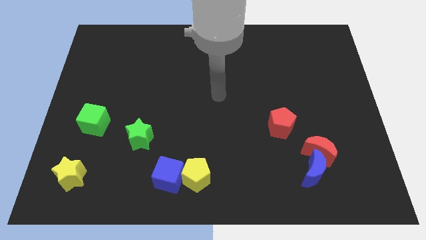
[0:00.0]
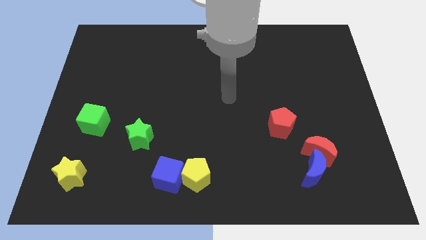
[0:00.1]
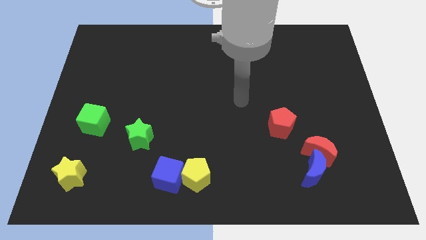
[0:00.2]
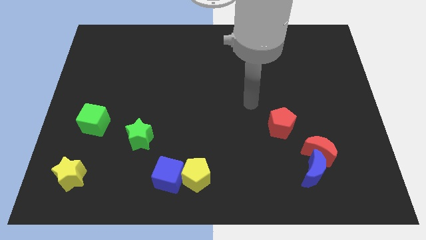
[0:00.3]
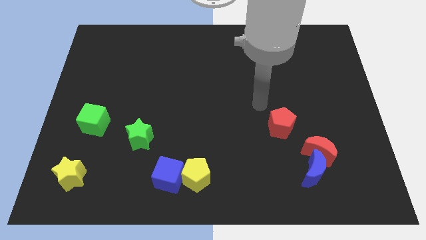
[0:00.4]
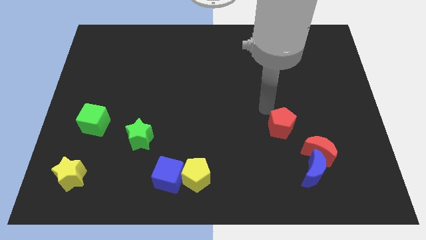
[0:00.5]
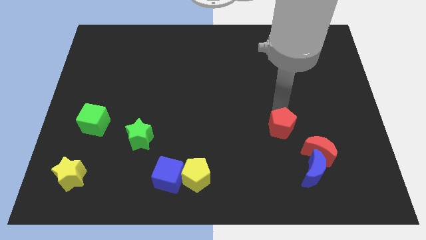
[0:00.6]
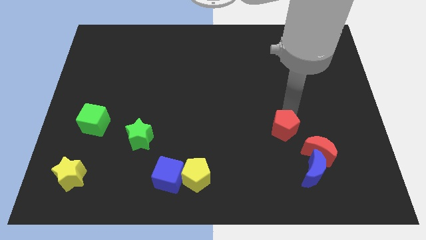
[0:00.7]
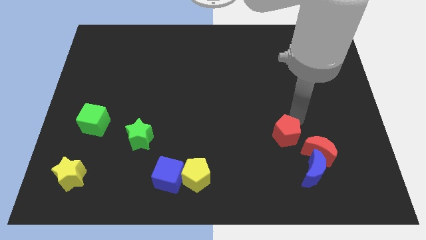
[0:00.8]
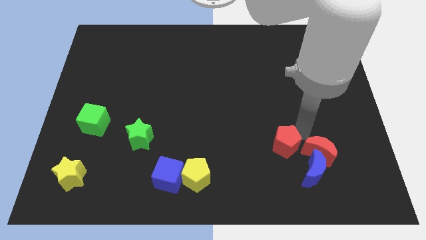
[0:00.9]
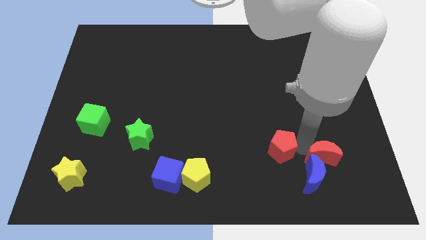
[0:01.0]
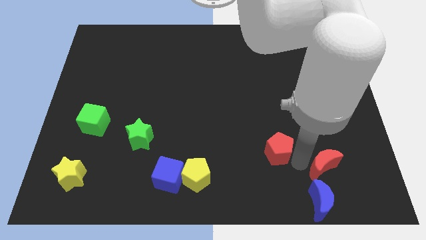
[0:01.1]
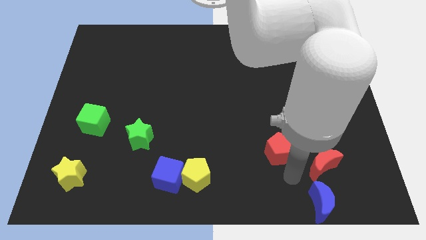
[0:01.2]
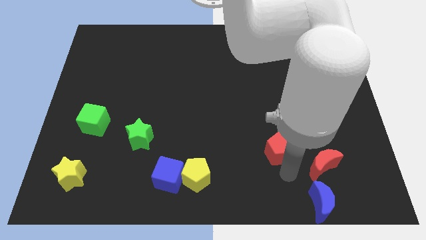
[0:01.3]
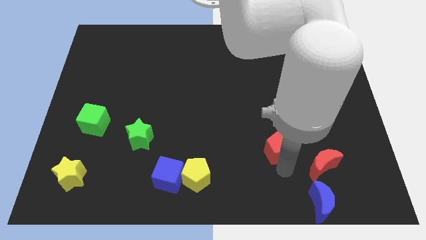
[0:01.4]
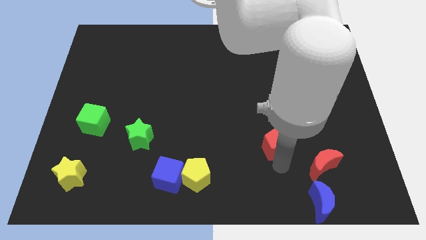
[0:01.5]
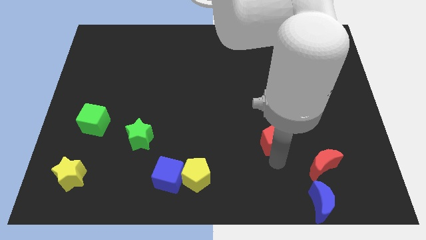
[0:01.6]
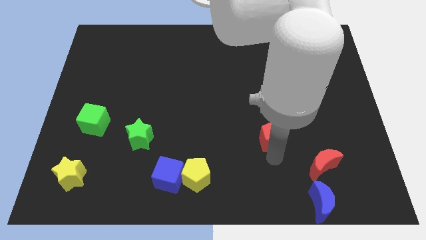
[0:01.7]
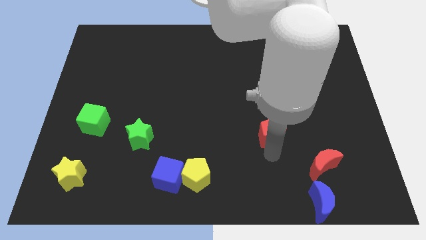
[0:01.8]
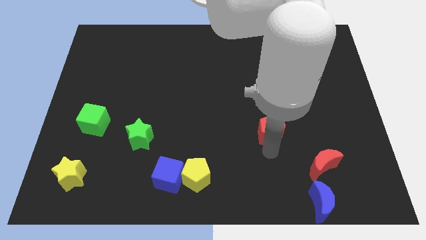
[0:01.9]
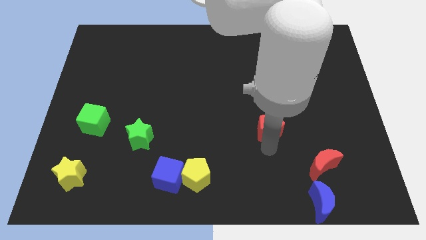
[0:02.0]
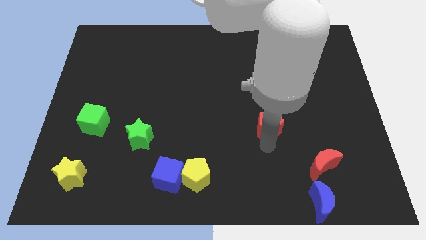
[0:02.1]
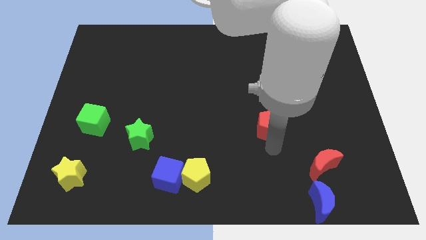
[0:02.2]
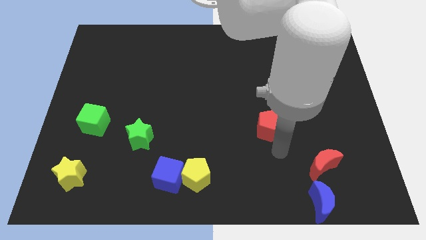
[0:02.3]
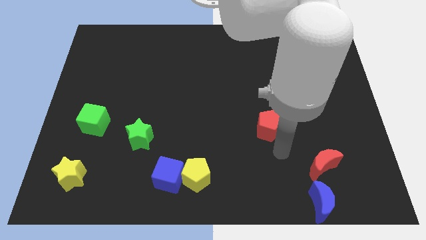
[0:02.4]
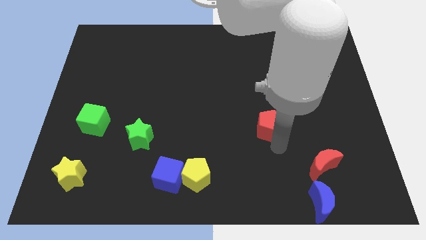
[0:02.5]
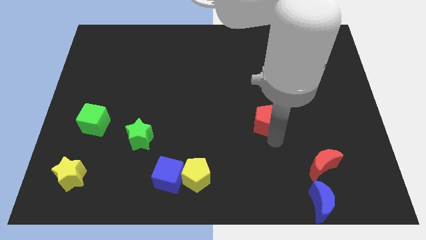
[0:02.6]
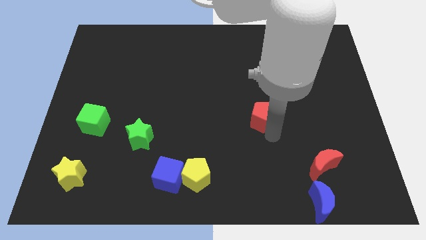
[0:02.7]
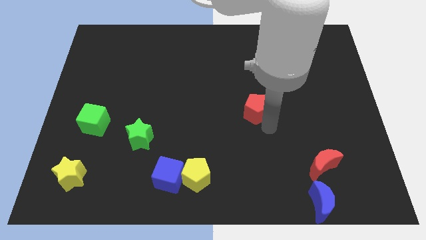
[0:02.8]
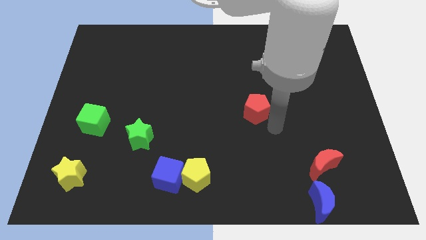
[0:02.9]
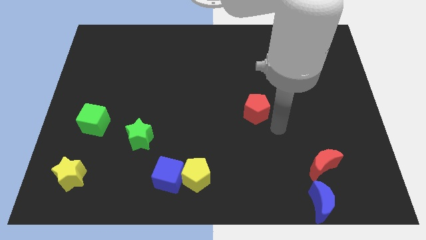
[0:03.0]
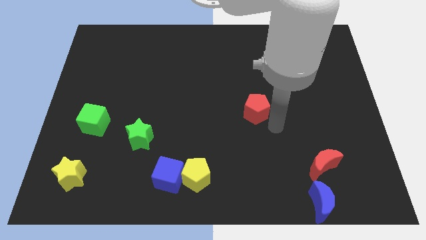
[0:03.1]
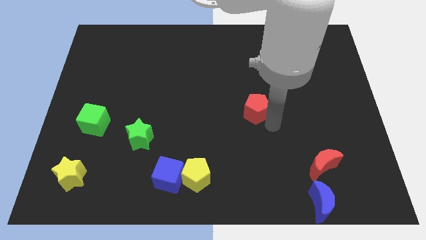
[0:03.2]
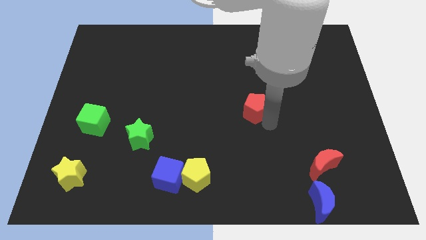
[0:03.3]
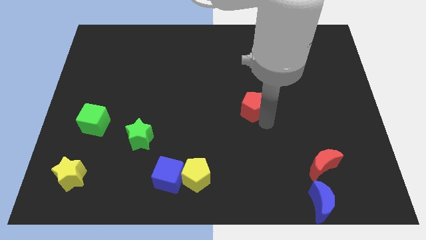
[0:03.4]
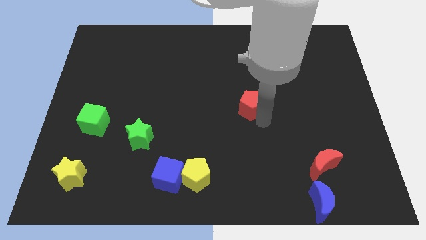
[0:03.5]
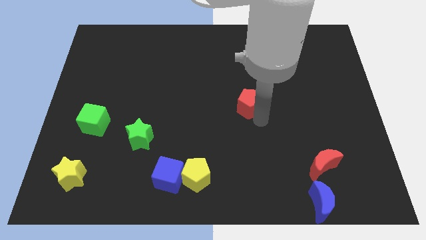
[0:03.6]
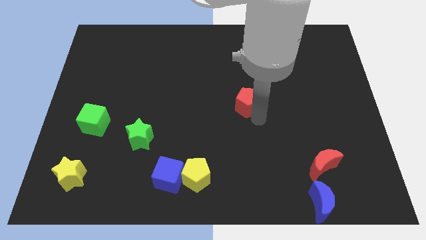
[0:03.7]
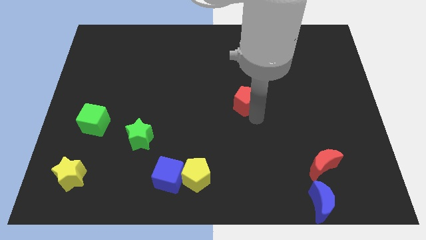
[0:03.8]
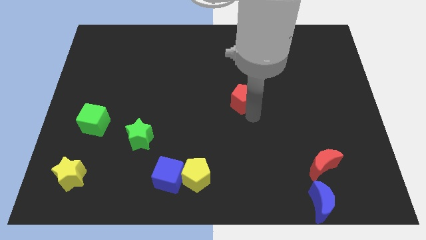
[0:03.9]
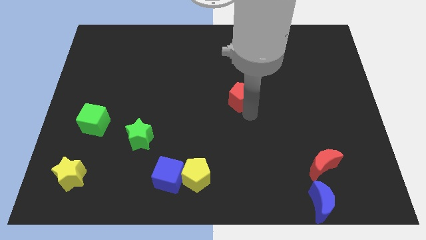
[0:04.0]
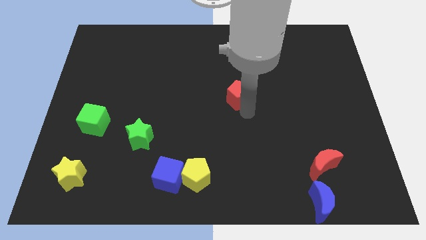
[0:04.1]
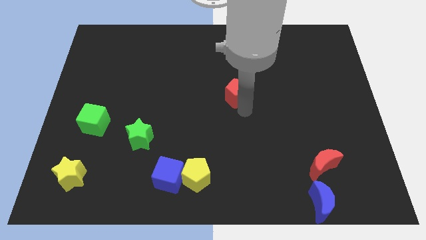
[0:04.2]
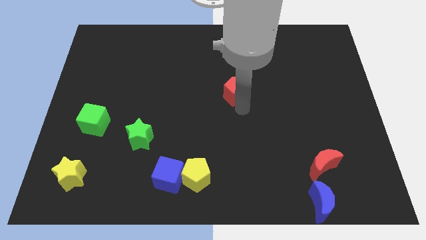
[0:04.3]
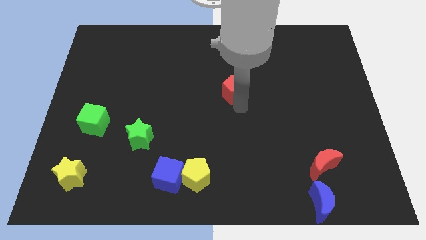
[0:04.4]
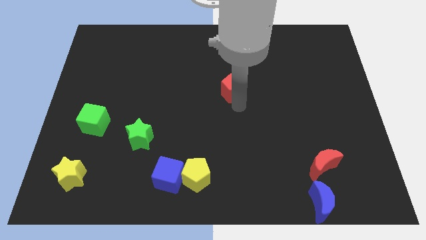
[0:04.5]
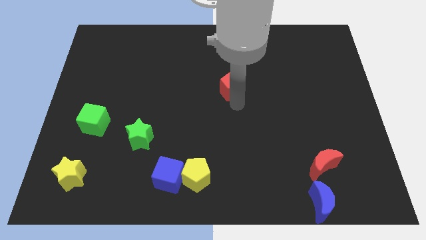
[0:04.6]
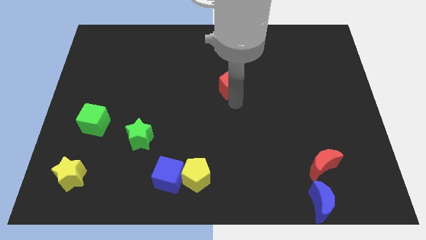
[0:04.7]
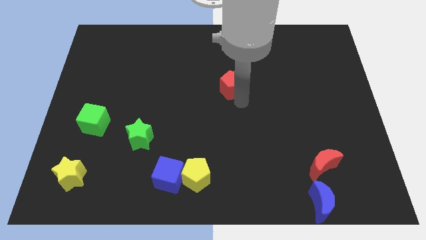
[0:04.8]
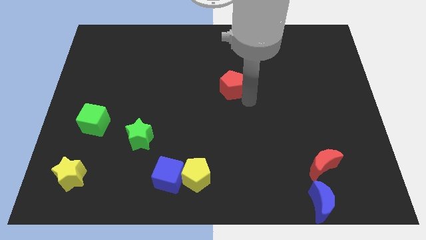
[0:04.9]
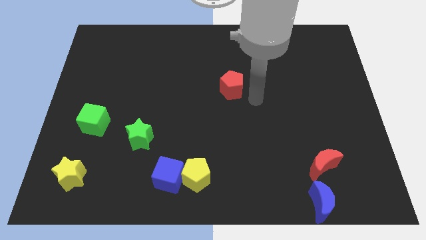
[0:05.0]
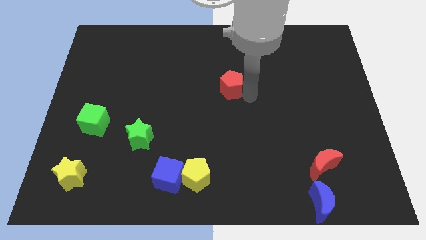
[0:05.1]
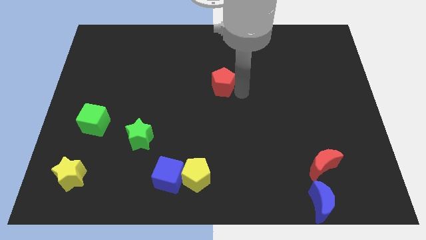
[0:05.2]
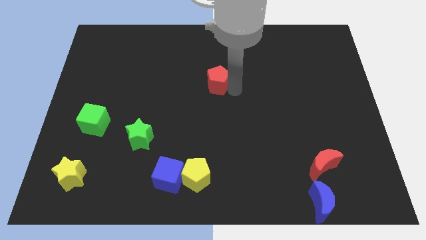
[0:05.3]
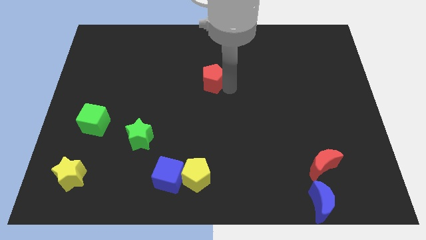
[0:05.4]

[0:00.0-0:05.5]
push the red pentagon diagonally up and left

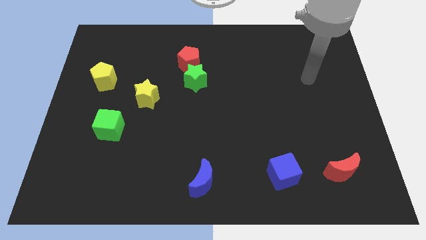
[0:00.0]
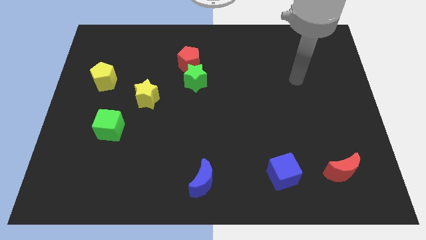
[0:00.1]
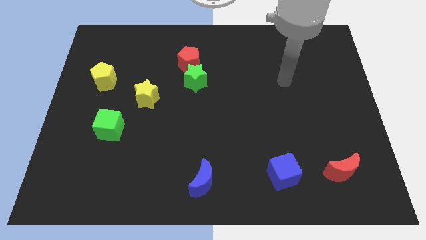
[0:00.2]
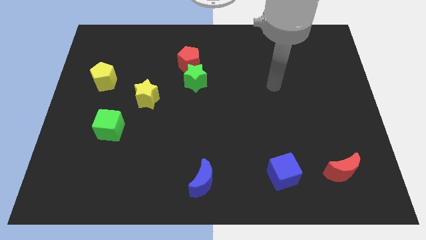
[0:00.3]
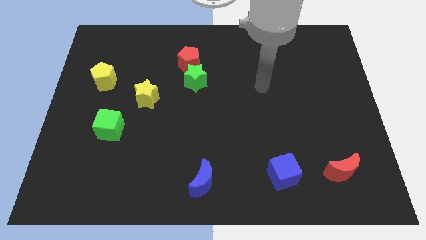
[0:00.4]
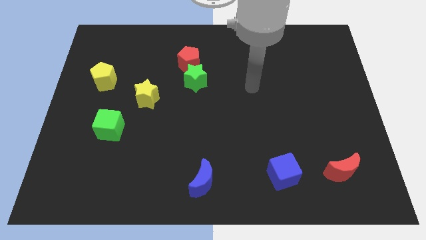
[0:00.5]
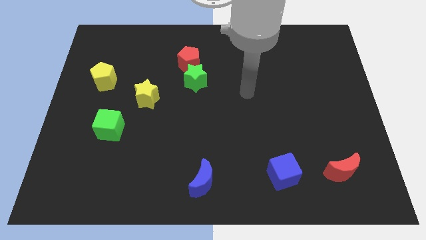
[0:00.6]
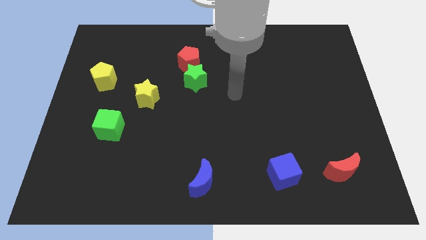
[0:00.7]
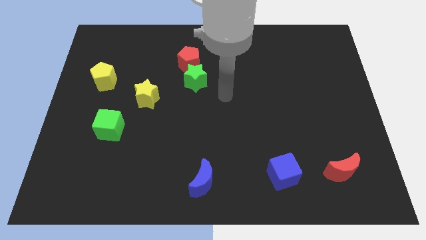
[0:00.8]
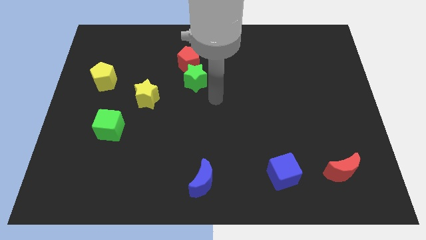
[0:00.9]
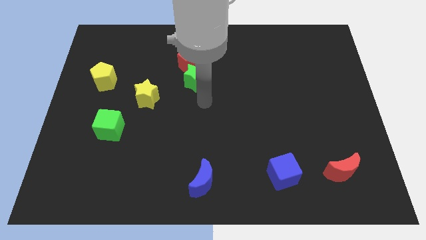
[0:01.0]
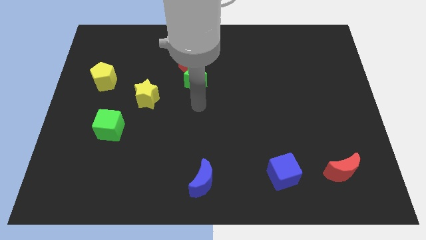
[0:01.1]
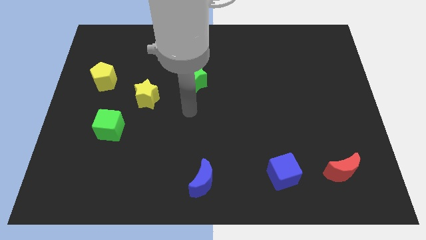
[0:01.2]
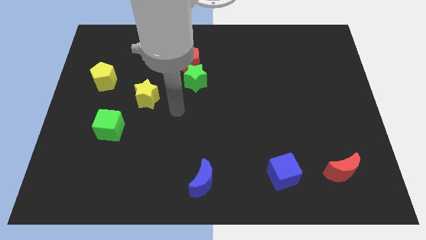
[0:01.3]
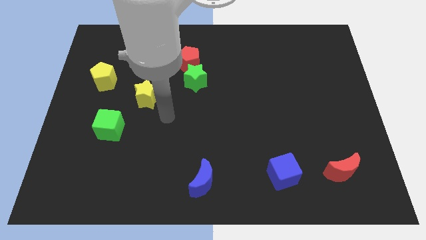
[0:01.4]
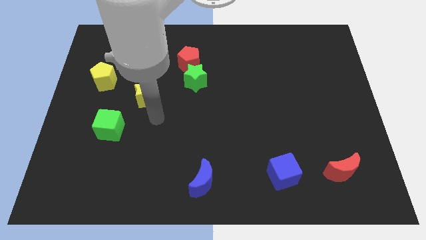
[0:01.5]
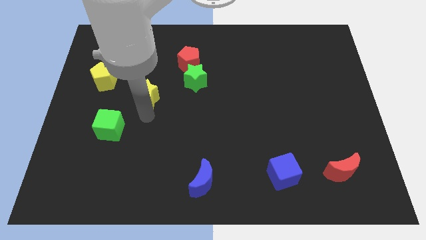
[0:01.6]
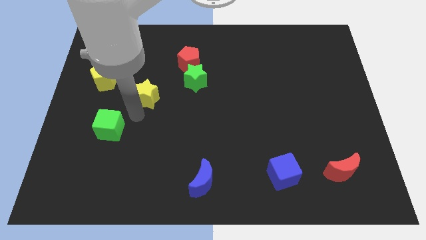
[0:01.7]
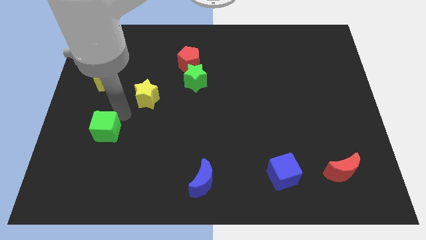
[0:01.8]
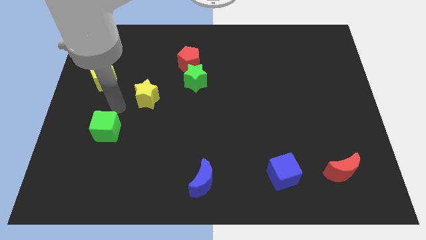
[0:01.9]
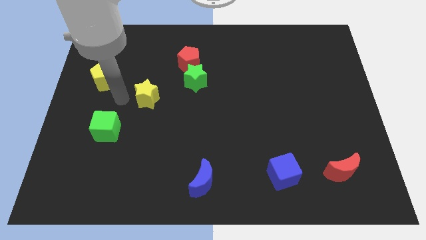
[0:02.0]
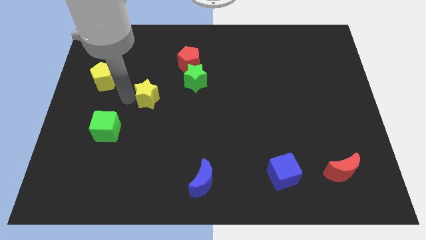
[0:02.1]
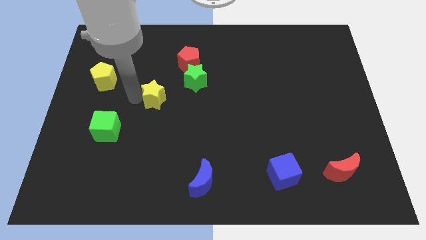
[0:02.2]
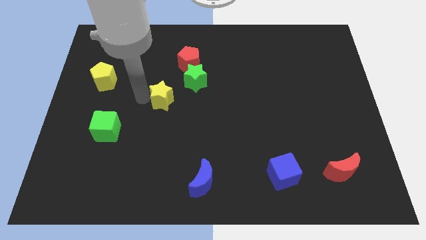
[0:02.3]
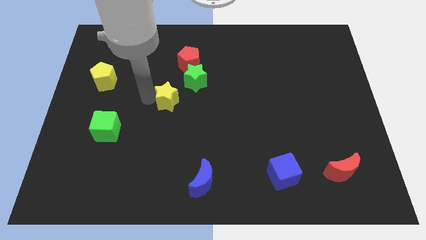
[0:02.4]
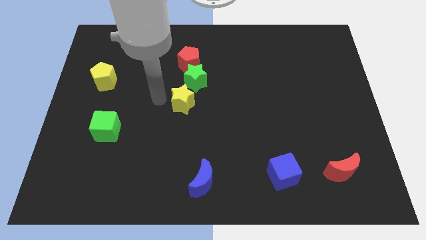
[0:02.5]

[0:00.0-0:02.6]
push the yellow star to the right a bit

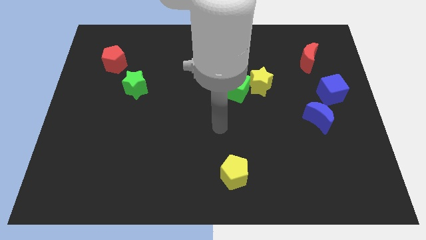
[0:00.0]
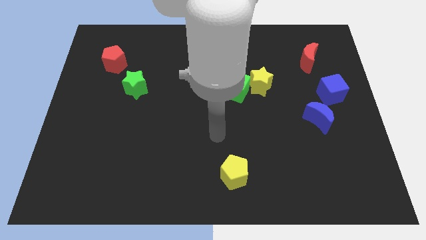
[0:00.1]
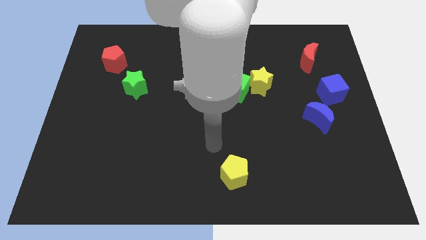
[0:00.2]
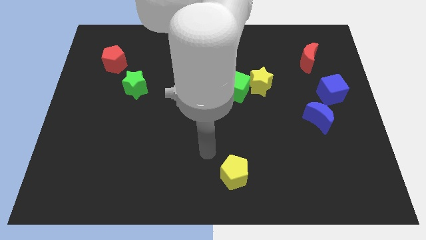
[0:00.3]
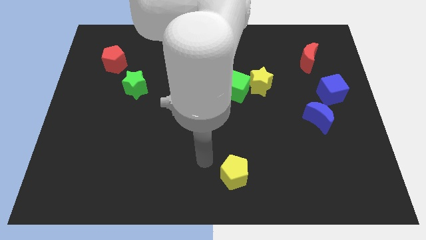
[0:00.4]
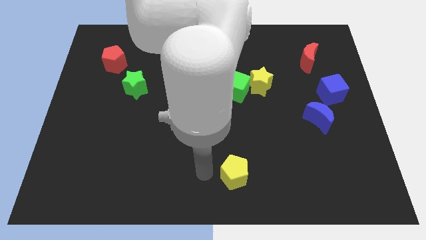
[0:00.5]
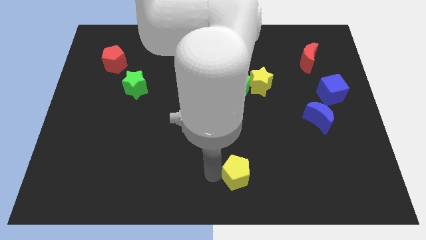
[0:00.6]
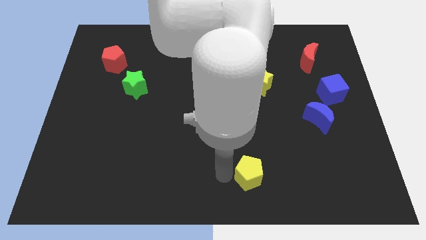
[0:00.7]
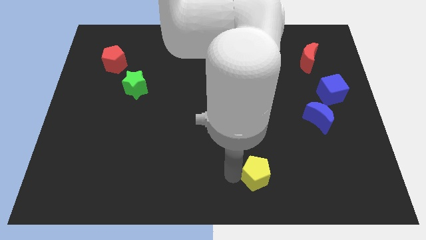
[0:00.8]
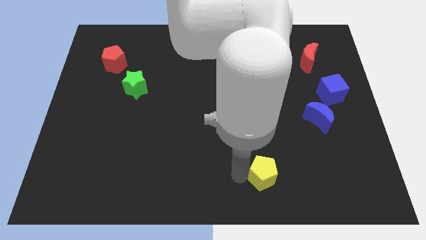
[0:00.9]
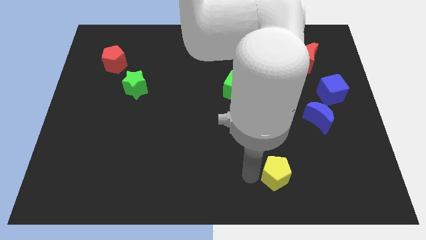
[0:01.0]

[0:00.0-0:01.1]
move the yellow pentagon slightly to the right
